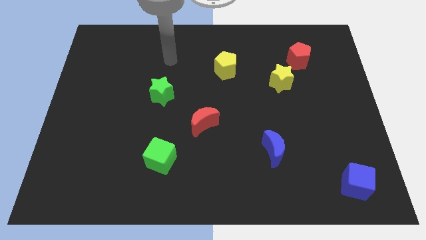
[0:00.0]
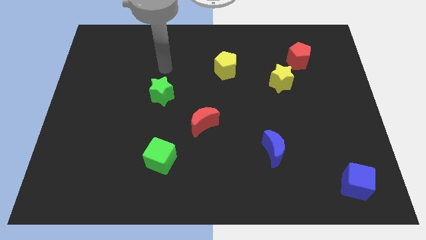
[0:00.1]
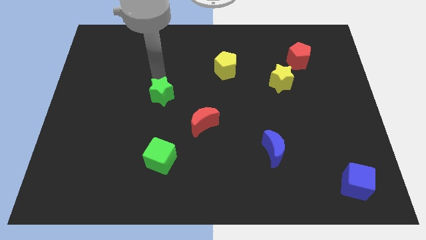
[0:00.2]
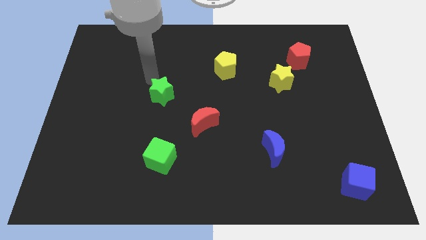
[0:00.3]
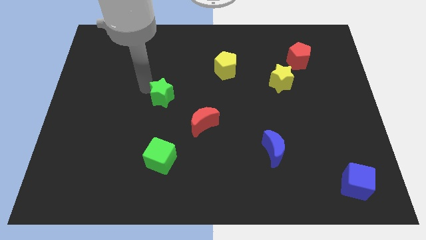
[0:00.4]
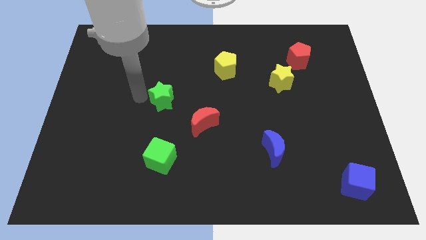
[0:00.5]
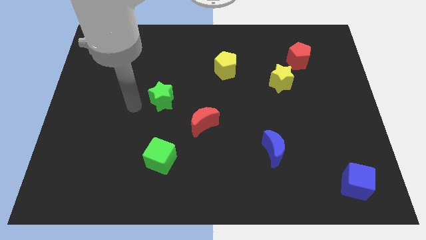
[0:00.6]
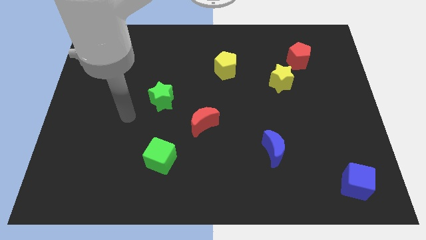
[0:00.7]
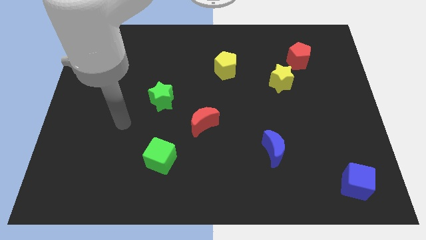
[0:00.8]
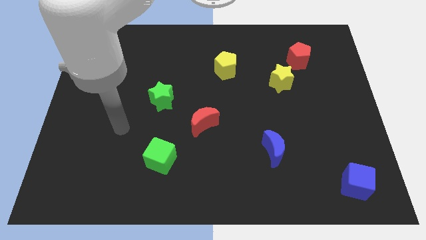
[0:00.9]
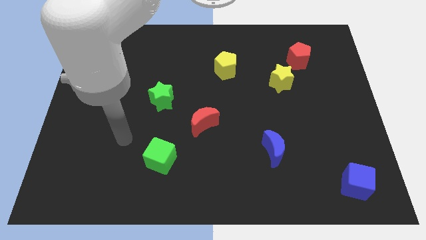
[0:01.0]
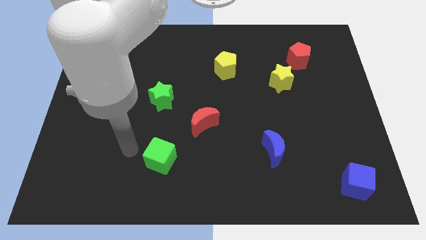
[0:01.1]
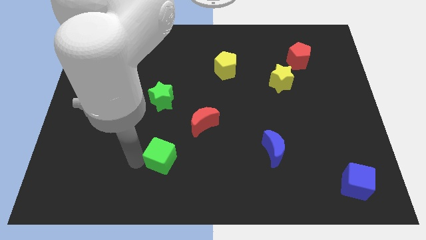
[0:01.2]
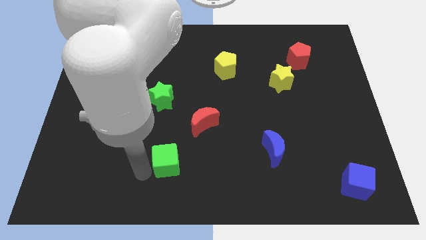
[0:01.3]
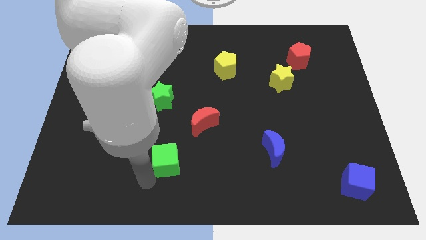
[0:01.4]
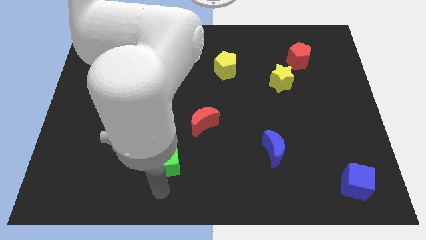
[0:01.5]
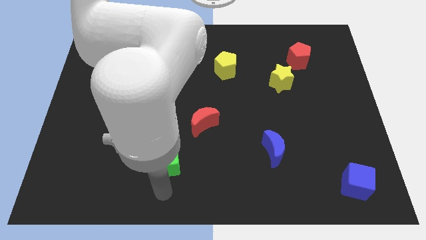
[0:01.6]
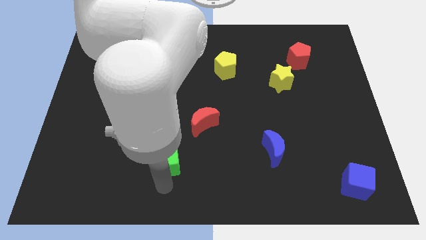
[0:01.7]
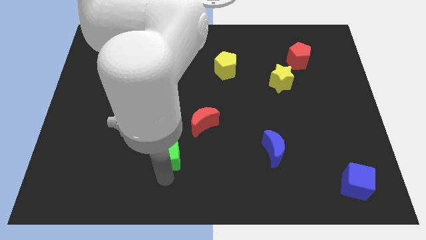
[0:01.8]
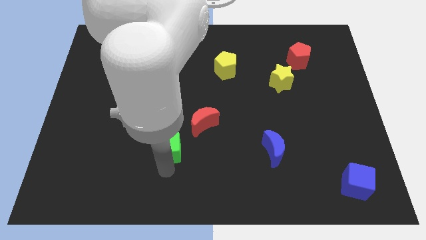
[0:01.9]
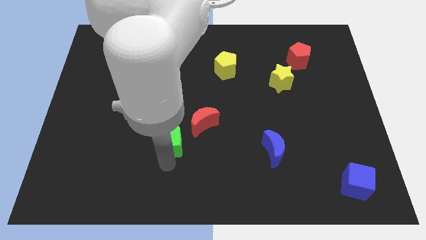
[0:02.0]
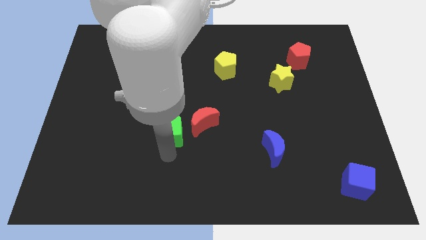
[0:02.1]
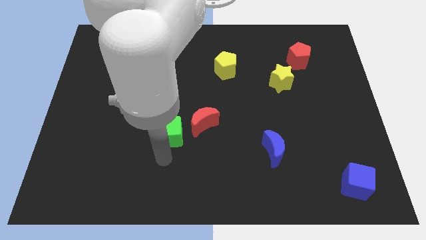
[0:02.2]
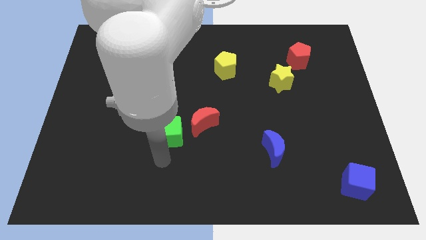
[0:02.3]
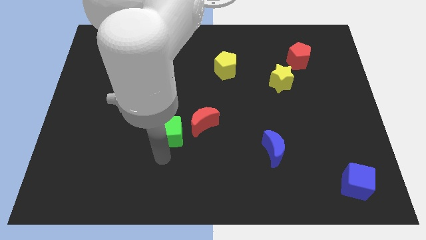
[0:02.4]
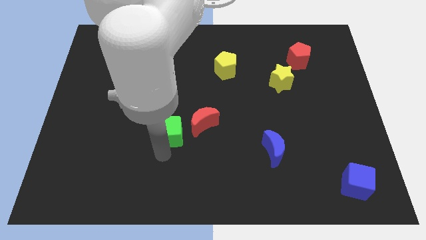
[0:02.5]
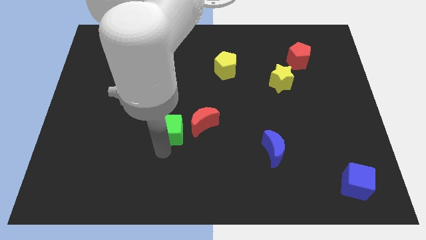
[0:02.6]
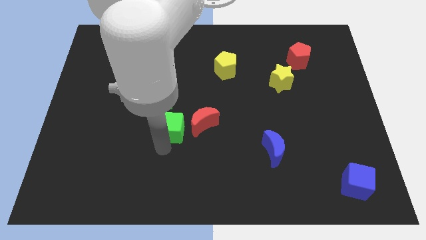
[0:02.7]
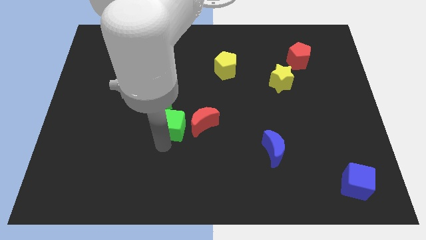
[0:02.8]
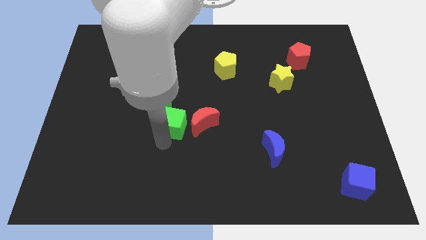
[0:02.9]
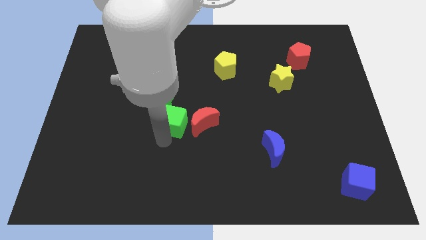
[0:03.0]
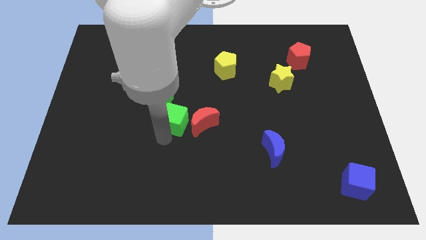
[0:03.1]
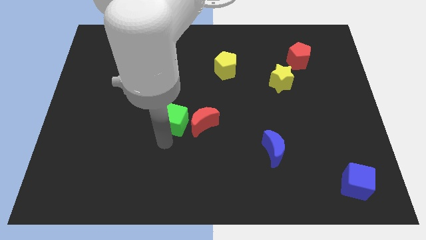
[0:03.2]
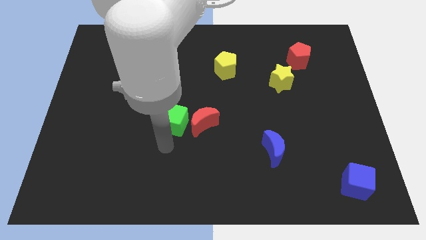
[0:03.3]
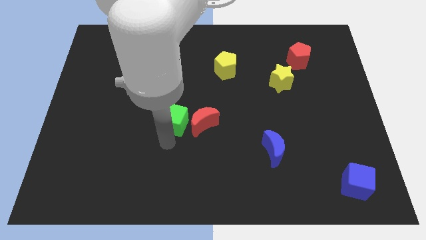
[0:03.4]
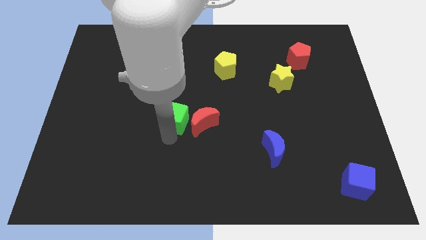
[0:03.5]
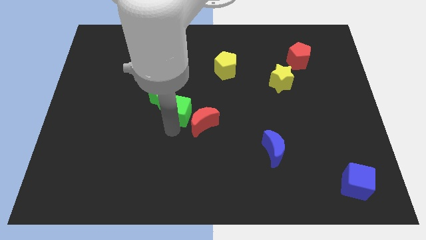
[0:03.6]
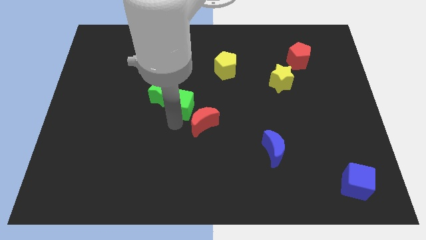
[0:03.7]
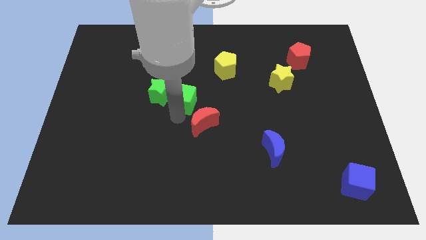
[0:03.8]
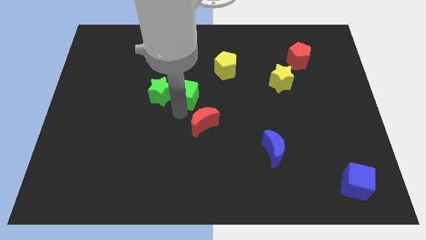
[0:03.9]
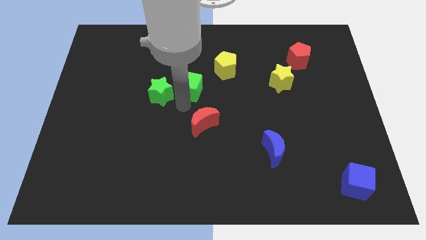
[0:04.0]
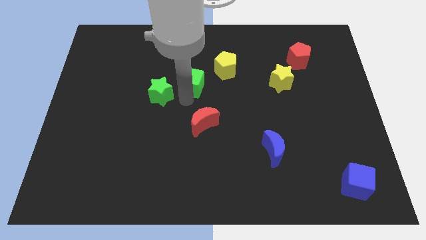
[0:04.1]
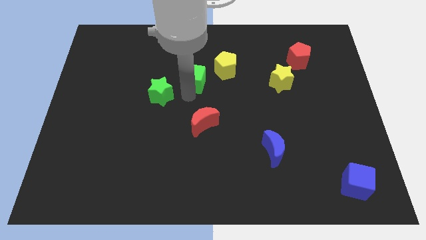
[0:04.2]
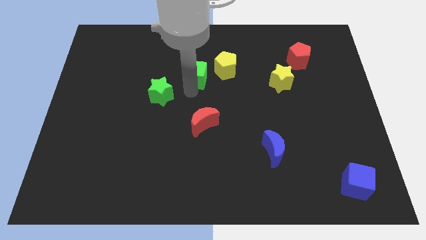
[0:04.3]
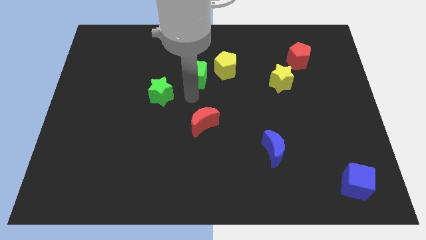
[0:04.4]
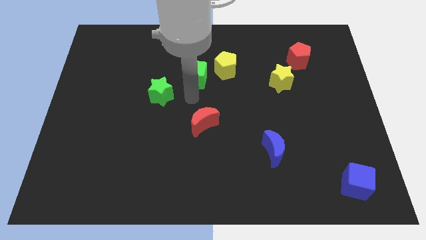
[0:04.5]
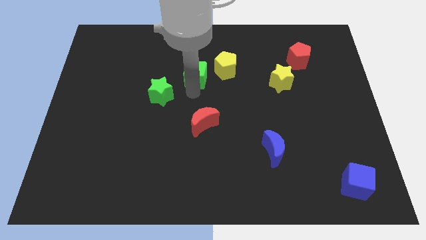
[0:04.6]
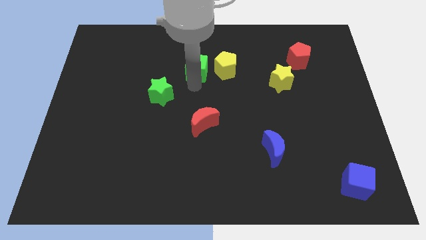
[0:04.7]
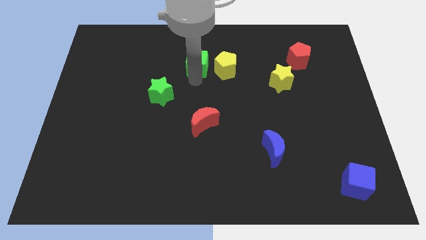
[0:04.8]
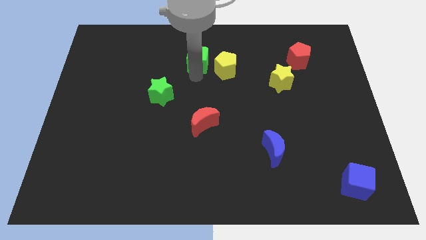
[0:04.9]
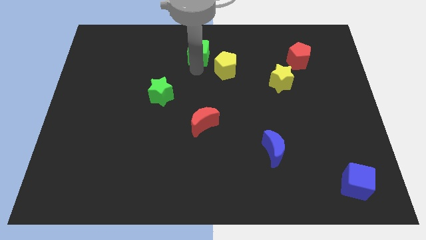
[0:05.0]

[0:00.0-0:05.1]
put the green cube to the top side

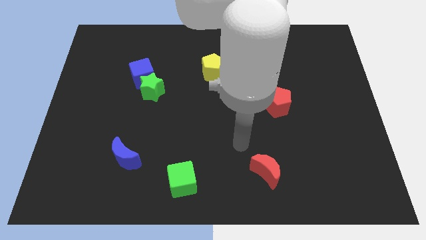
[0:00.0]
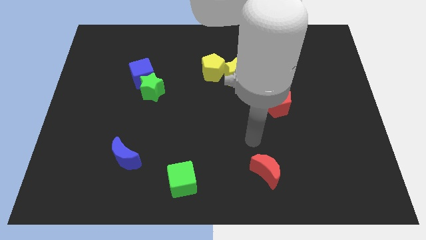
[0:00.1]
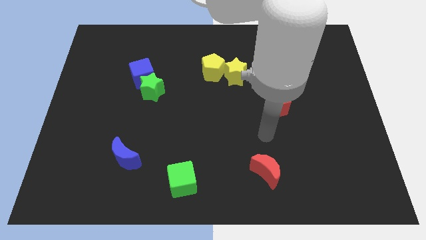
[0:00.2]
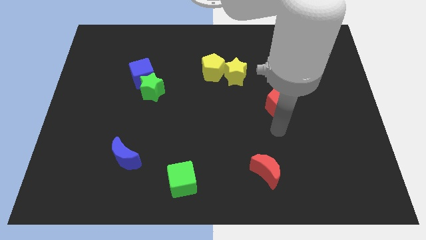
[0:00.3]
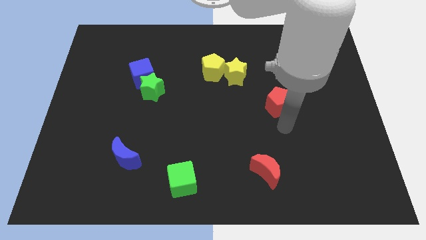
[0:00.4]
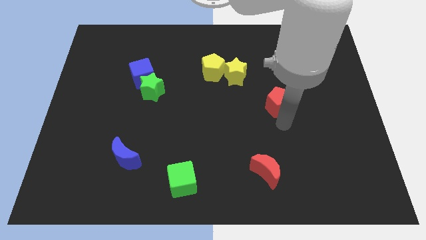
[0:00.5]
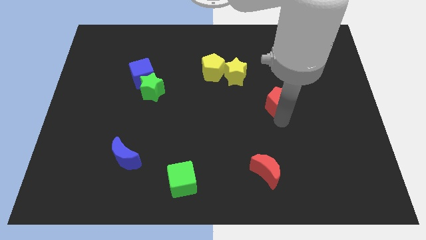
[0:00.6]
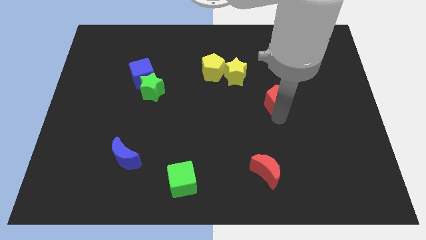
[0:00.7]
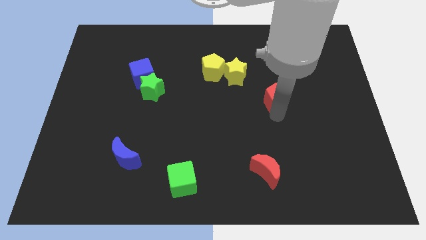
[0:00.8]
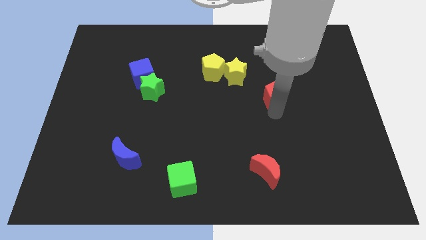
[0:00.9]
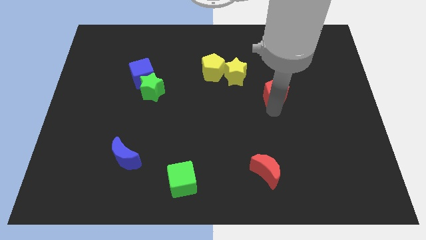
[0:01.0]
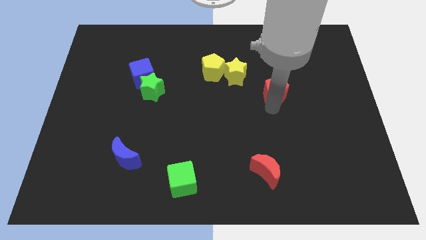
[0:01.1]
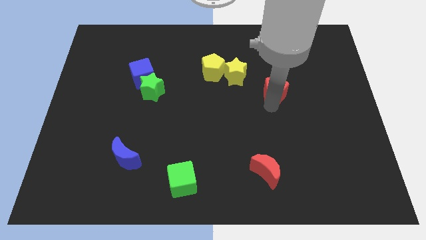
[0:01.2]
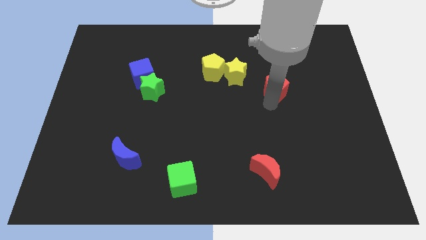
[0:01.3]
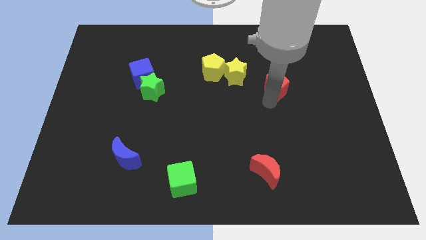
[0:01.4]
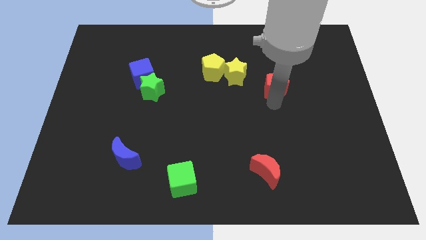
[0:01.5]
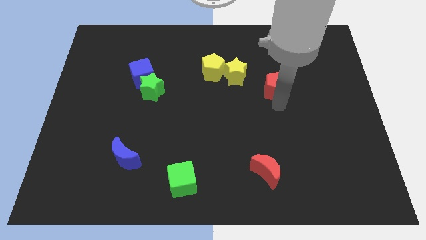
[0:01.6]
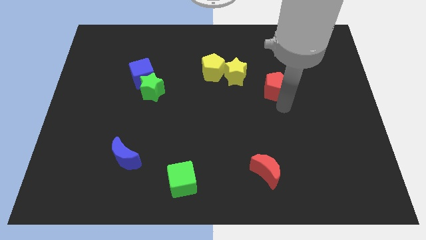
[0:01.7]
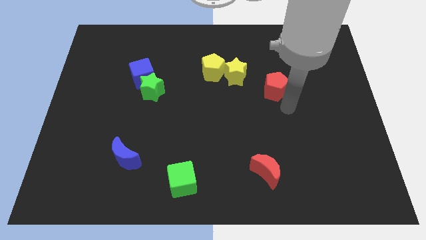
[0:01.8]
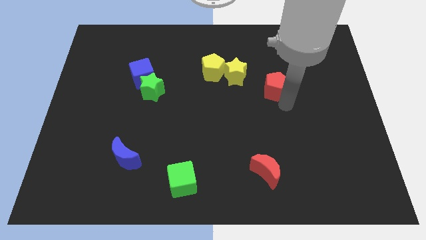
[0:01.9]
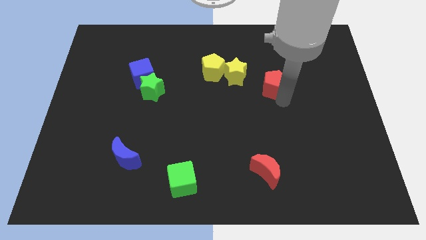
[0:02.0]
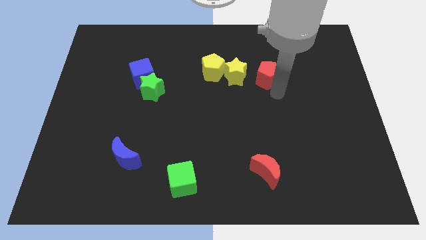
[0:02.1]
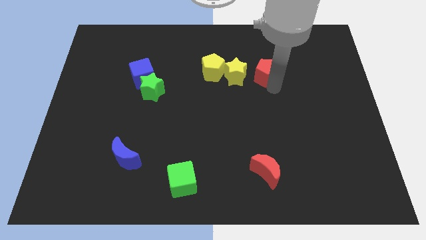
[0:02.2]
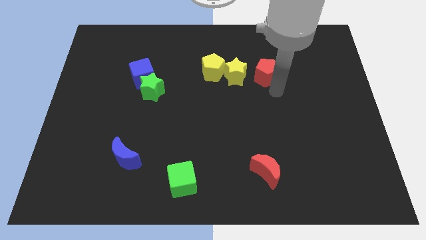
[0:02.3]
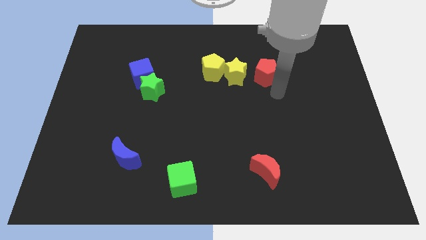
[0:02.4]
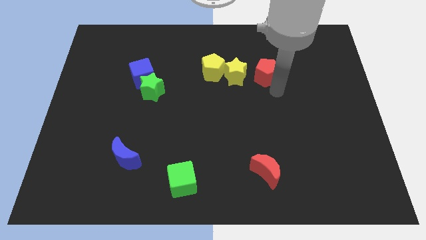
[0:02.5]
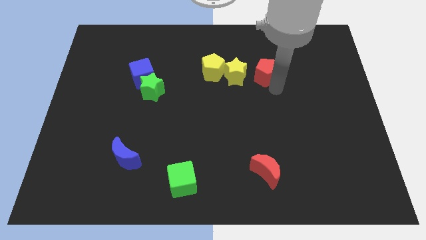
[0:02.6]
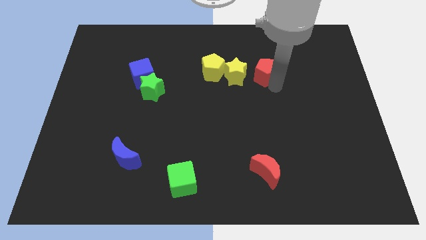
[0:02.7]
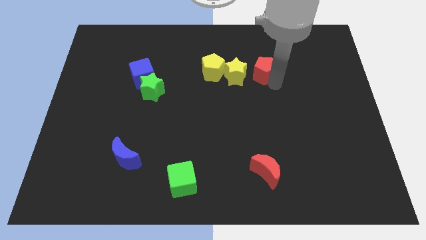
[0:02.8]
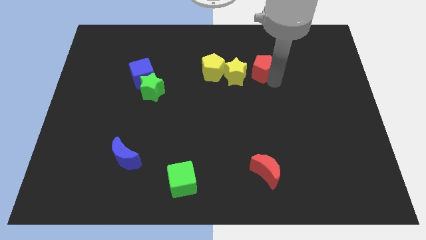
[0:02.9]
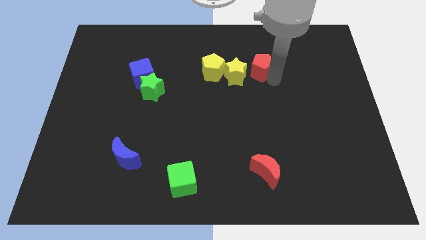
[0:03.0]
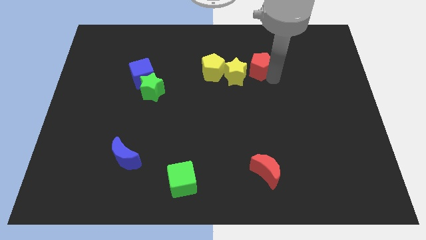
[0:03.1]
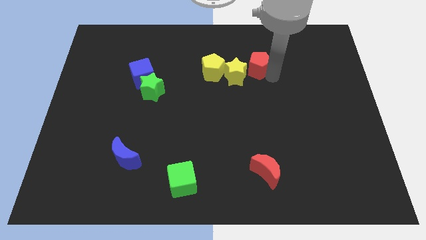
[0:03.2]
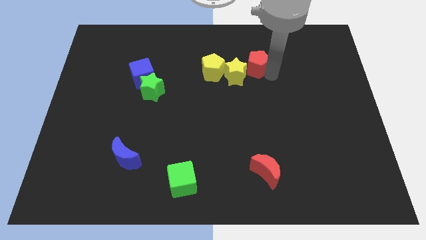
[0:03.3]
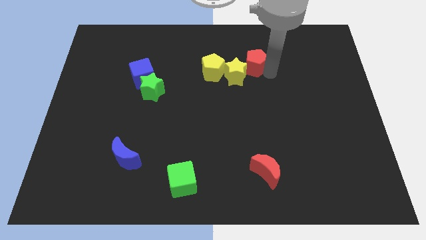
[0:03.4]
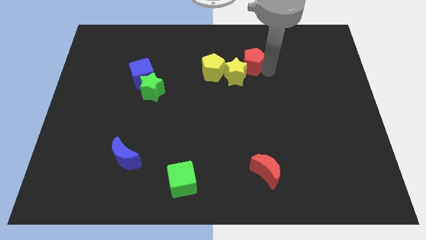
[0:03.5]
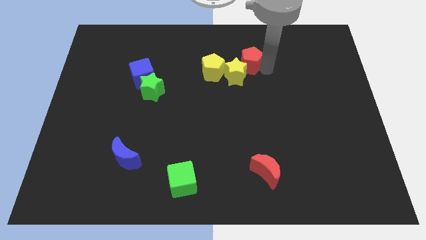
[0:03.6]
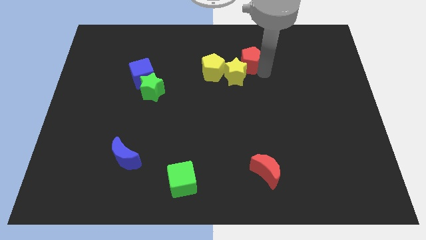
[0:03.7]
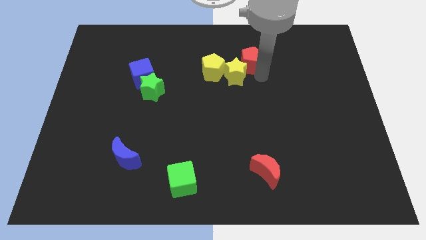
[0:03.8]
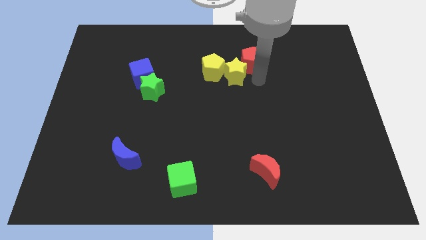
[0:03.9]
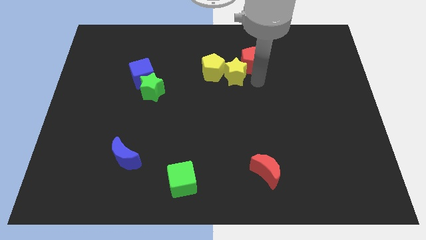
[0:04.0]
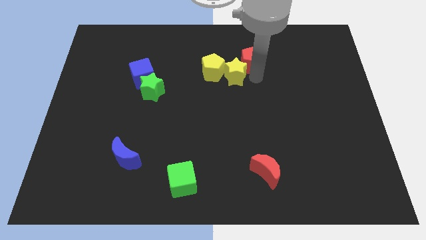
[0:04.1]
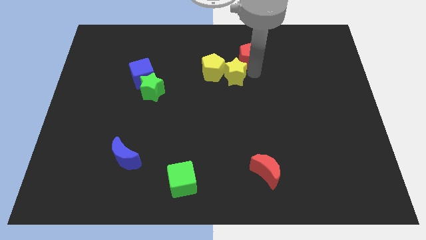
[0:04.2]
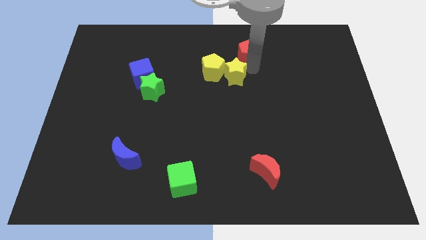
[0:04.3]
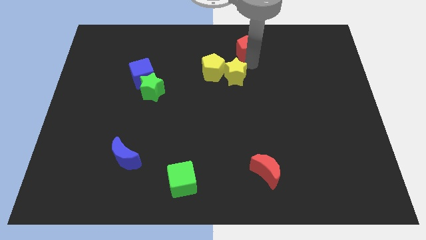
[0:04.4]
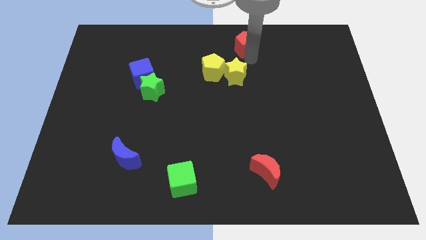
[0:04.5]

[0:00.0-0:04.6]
put the red pentagon to the top
